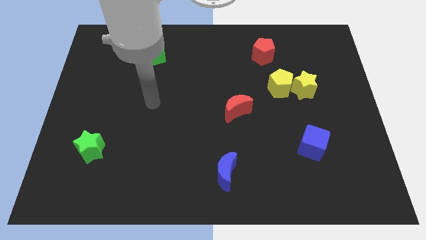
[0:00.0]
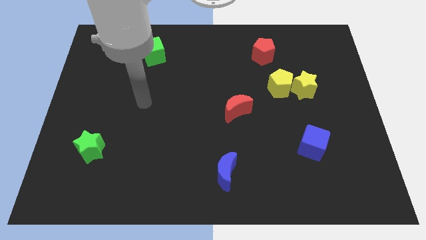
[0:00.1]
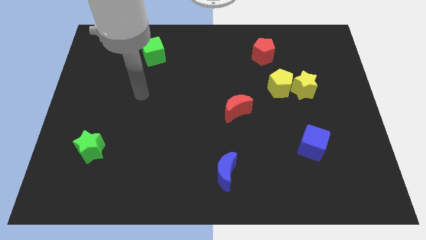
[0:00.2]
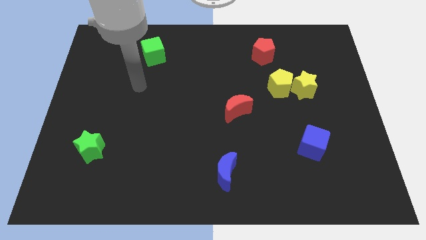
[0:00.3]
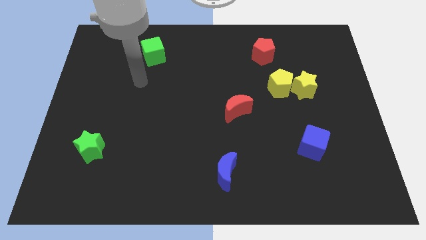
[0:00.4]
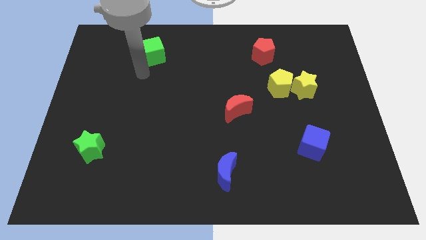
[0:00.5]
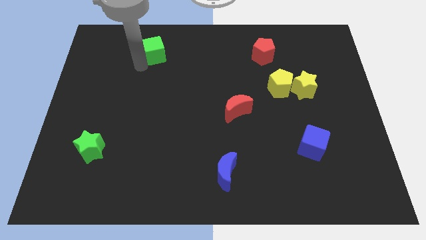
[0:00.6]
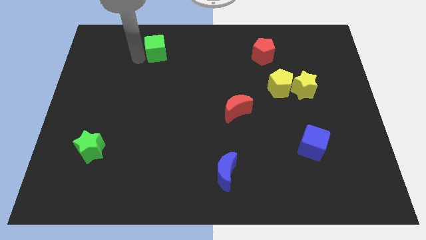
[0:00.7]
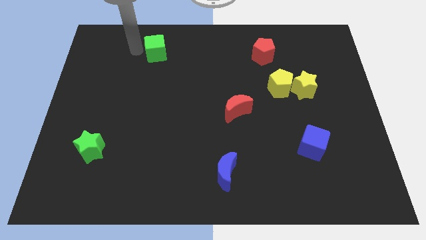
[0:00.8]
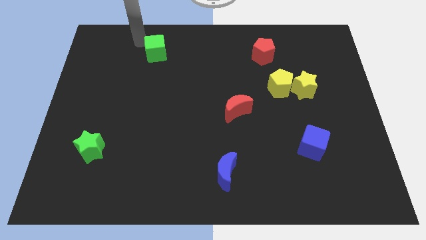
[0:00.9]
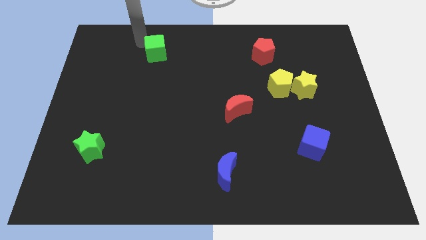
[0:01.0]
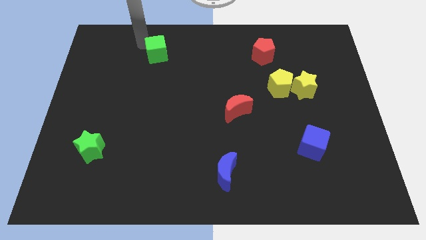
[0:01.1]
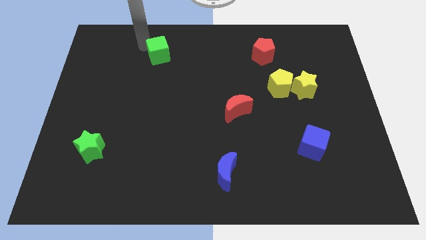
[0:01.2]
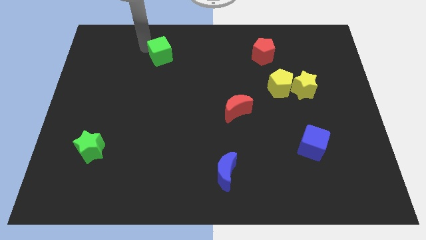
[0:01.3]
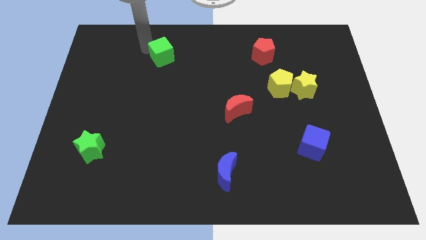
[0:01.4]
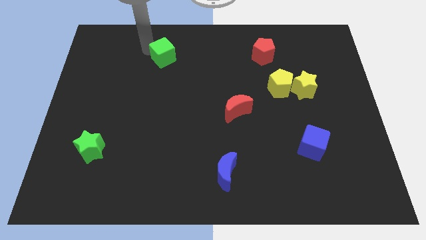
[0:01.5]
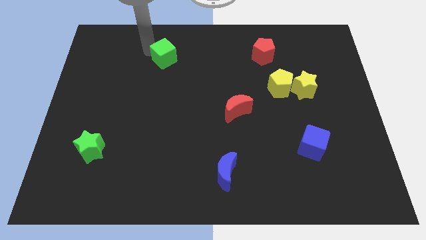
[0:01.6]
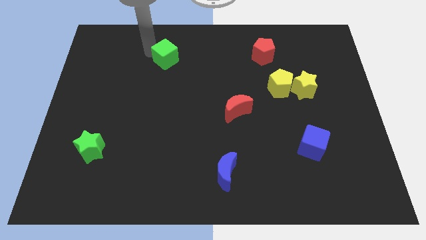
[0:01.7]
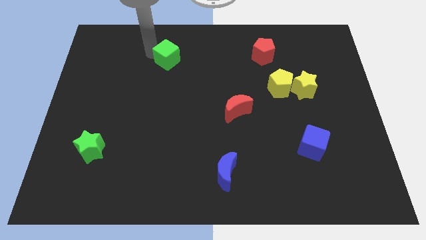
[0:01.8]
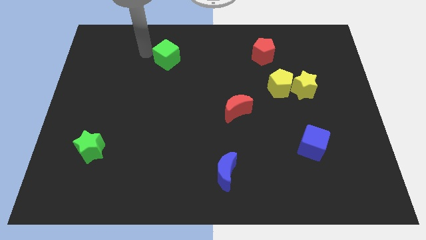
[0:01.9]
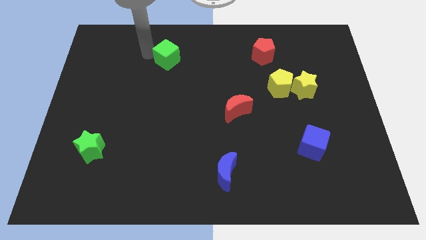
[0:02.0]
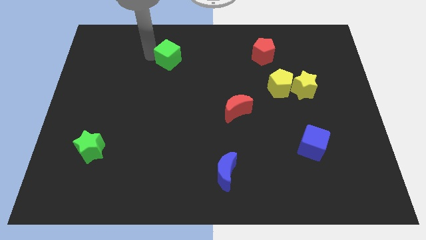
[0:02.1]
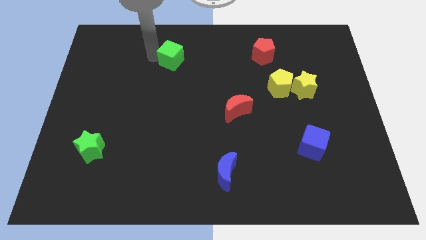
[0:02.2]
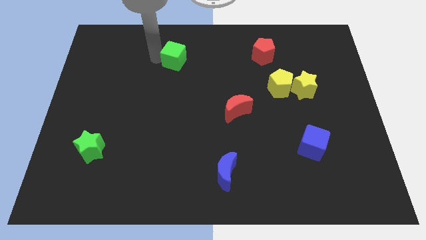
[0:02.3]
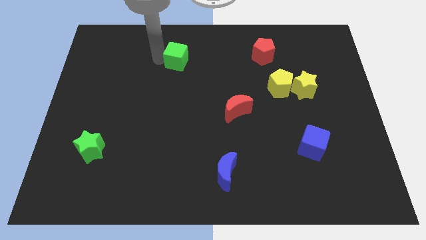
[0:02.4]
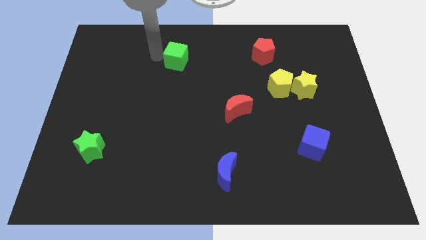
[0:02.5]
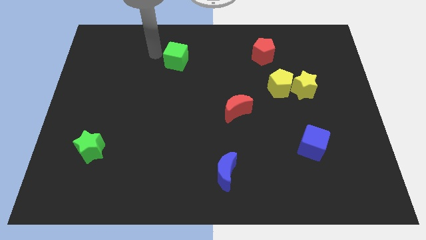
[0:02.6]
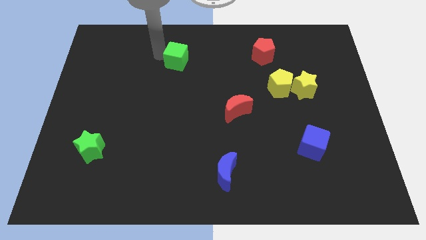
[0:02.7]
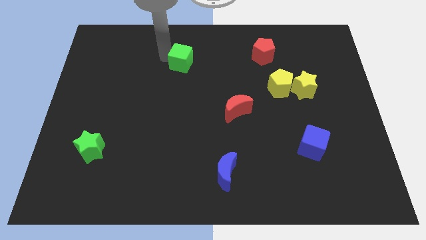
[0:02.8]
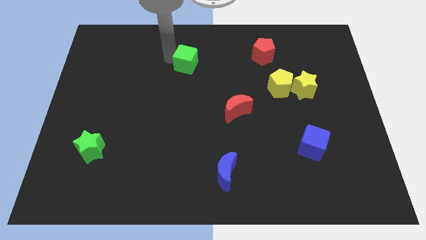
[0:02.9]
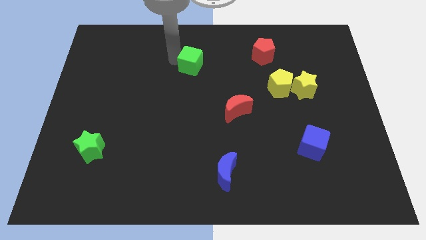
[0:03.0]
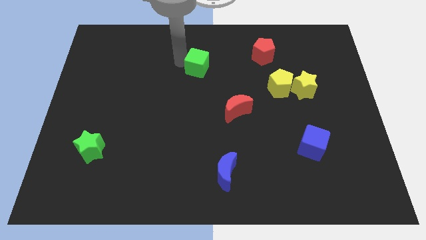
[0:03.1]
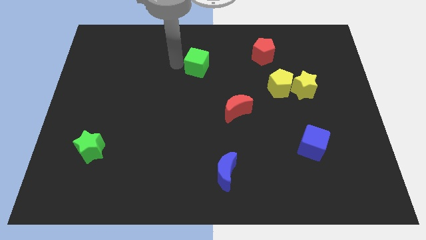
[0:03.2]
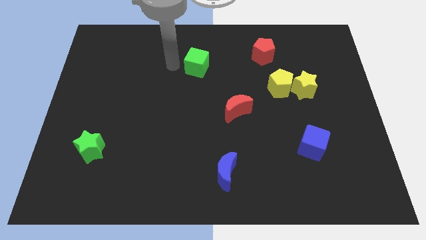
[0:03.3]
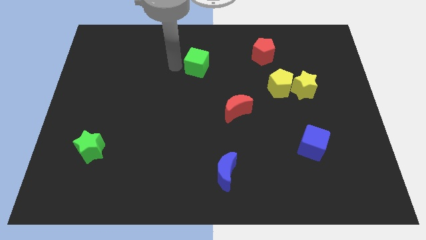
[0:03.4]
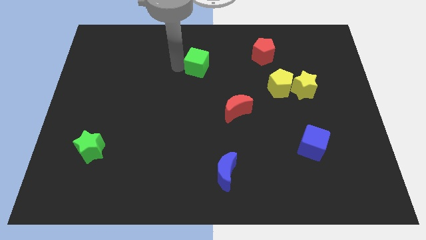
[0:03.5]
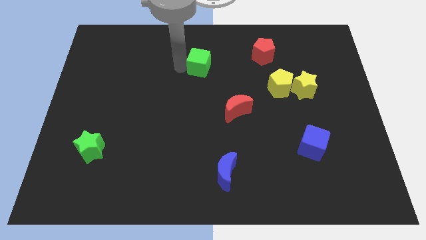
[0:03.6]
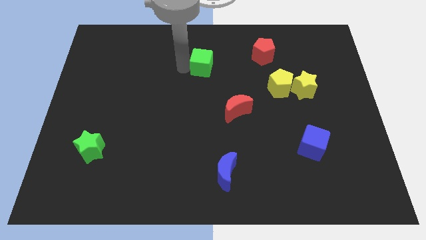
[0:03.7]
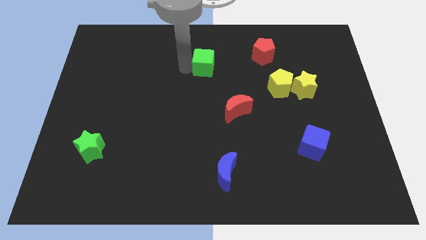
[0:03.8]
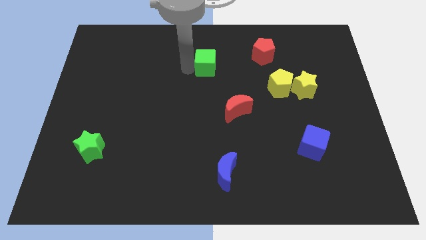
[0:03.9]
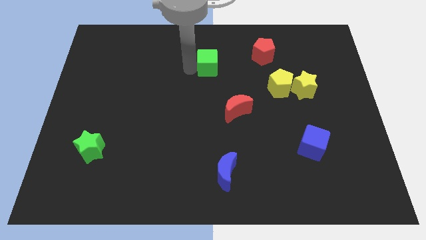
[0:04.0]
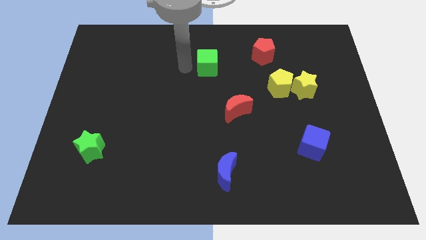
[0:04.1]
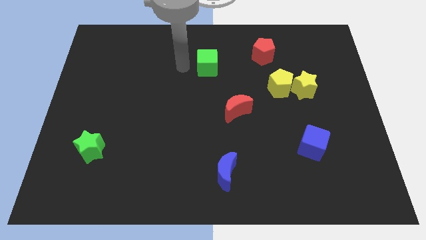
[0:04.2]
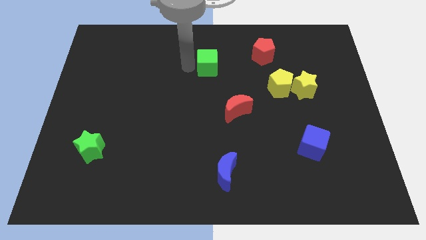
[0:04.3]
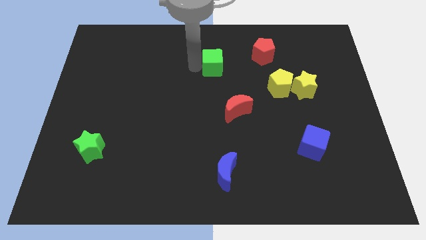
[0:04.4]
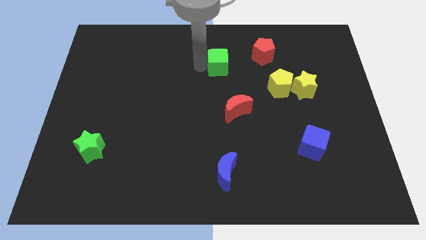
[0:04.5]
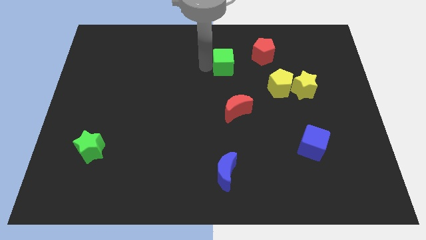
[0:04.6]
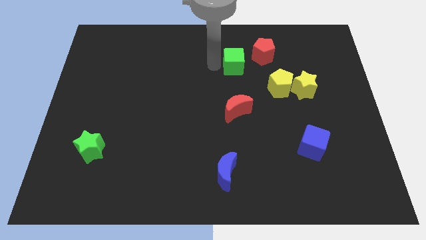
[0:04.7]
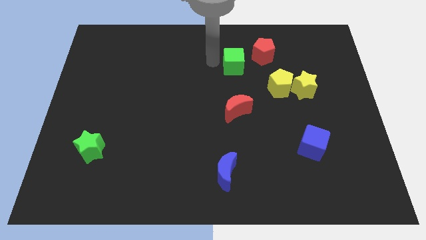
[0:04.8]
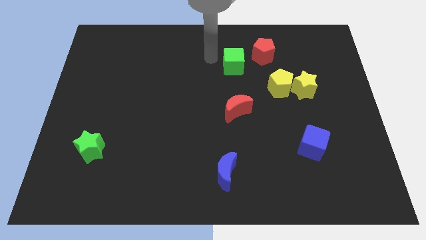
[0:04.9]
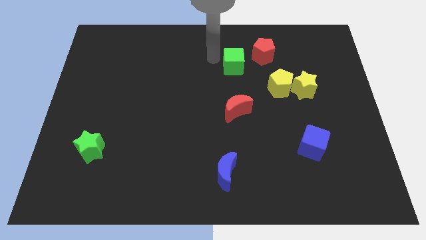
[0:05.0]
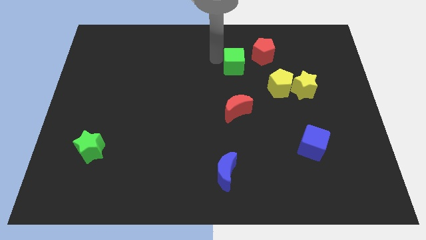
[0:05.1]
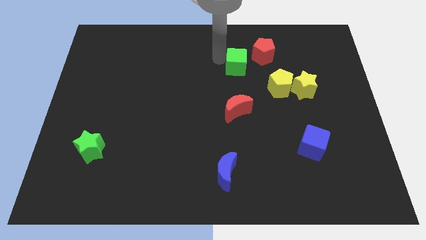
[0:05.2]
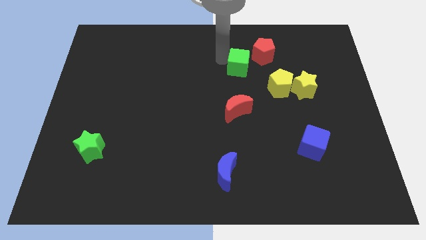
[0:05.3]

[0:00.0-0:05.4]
push the green cube to the top left side of the yellow pentagon

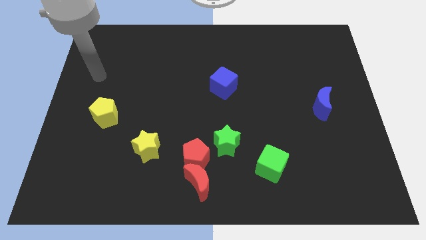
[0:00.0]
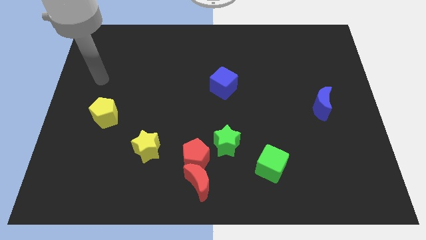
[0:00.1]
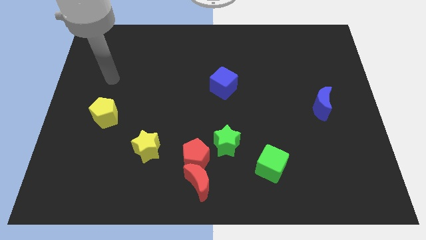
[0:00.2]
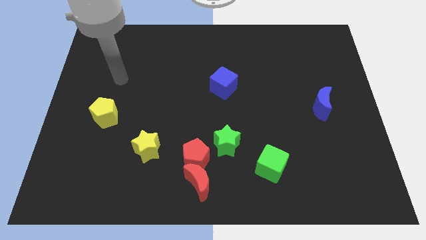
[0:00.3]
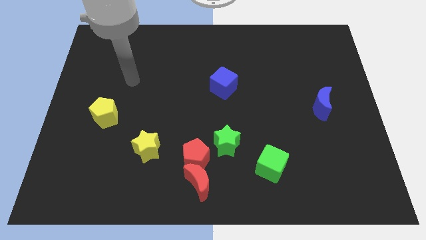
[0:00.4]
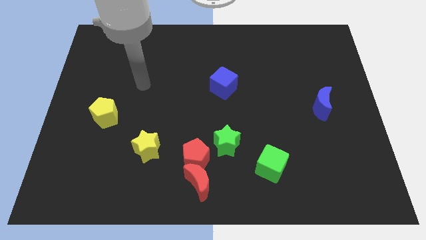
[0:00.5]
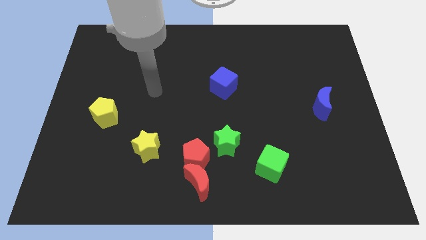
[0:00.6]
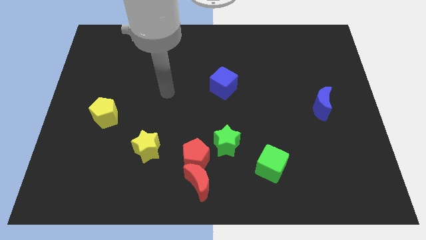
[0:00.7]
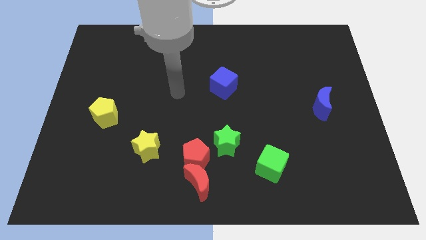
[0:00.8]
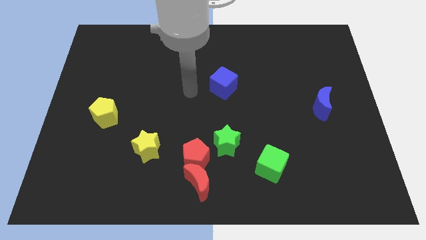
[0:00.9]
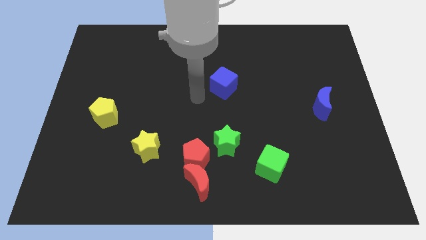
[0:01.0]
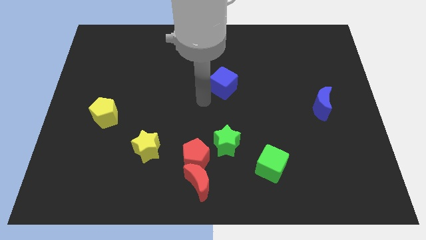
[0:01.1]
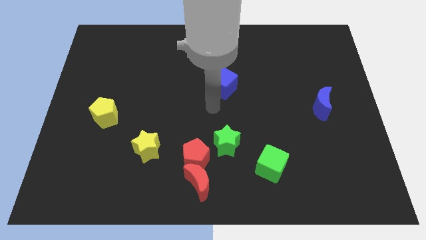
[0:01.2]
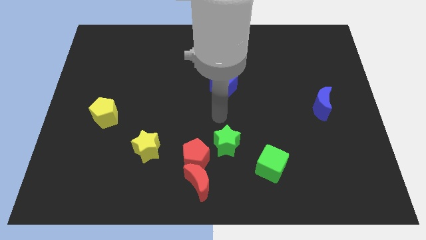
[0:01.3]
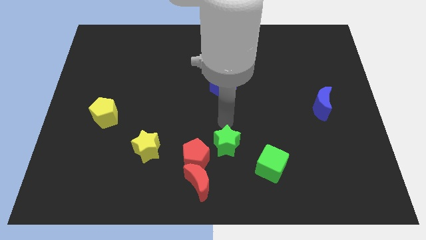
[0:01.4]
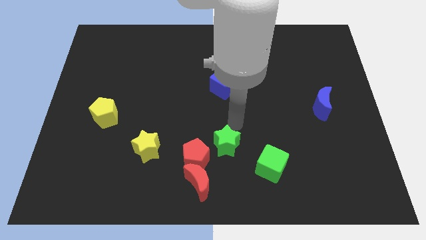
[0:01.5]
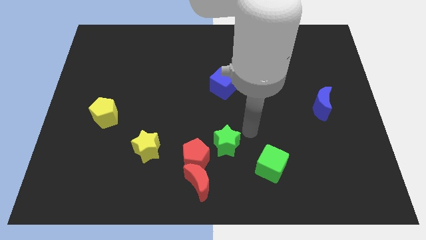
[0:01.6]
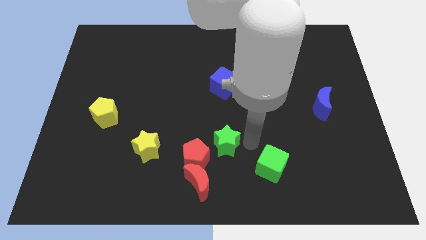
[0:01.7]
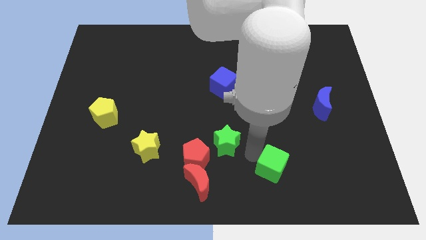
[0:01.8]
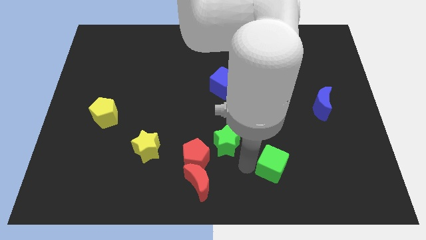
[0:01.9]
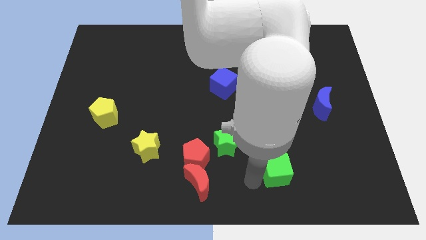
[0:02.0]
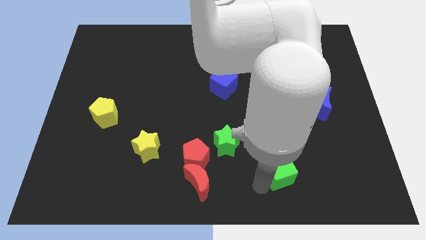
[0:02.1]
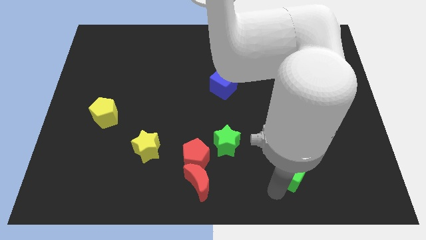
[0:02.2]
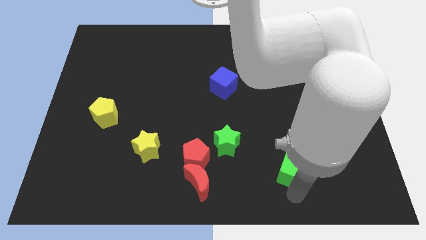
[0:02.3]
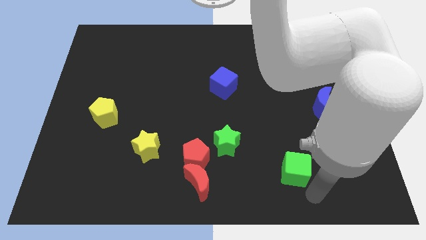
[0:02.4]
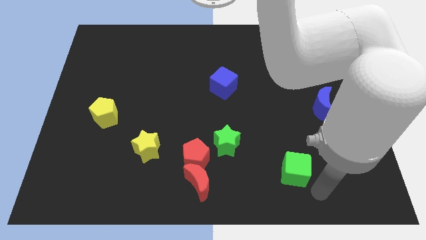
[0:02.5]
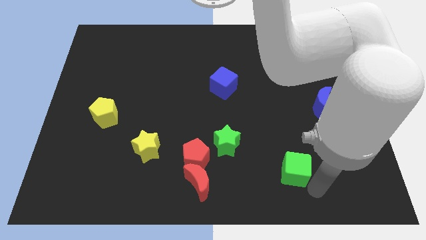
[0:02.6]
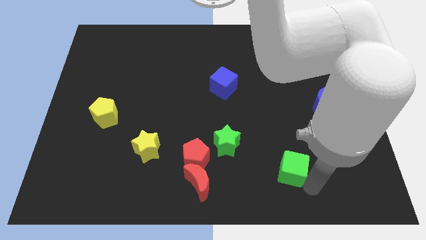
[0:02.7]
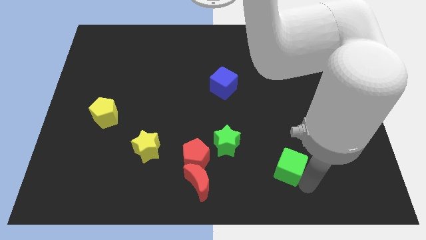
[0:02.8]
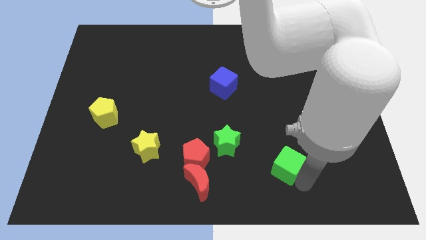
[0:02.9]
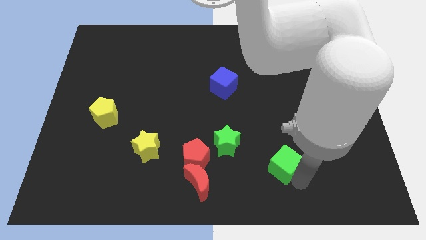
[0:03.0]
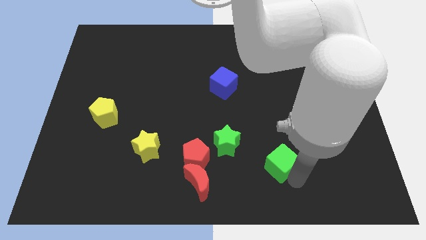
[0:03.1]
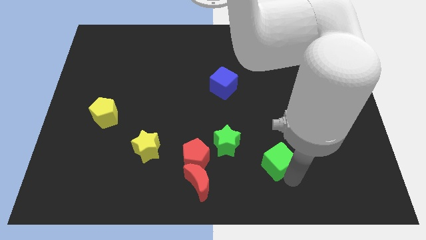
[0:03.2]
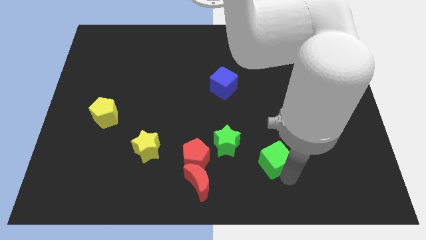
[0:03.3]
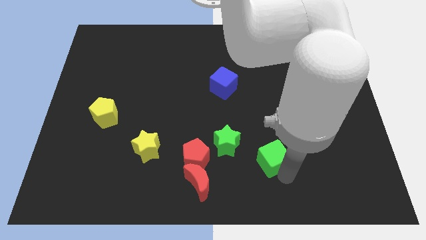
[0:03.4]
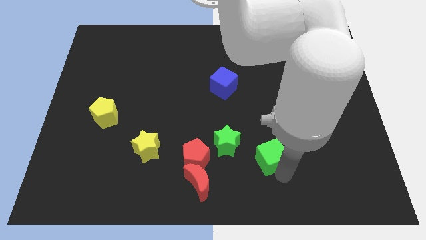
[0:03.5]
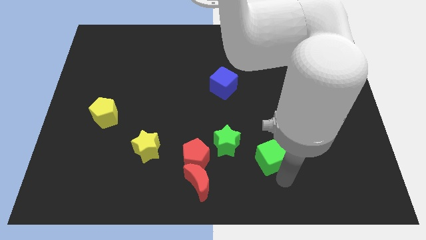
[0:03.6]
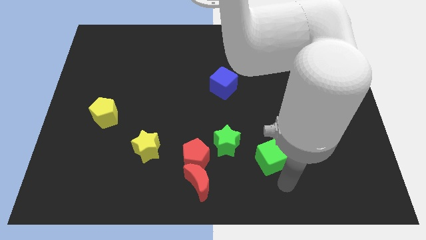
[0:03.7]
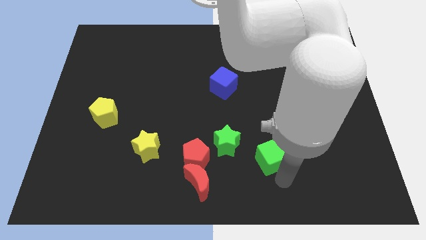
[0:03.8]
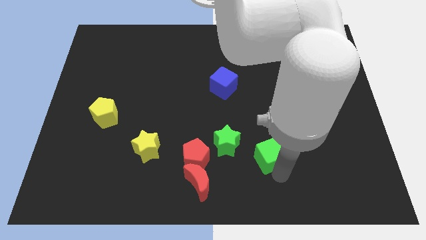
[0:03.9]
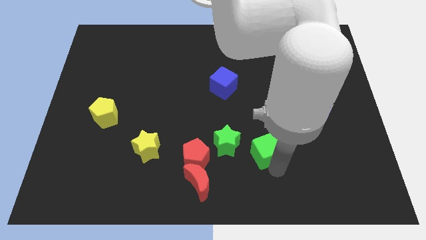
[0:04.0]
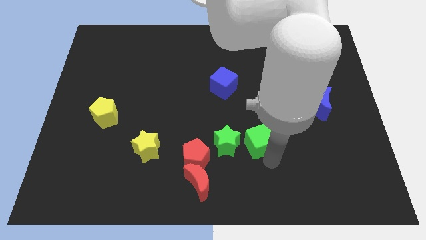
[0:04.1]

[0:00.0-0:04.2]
move the green cube diagonally up and to the right of the green star
